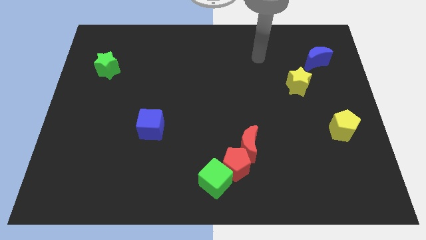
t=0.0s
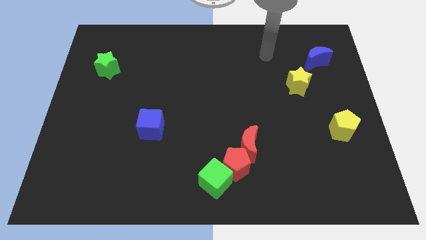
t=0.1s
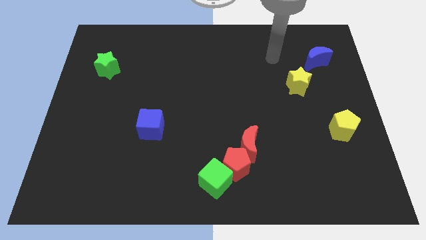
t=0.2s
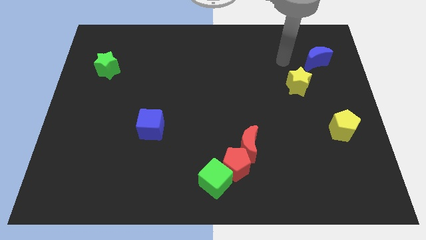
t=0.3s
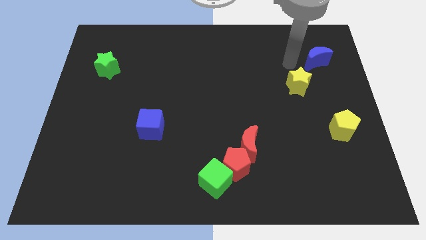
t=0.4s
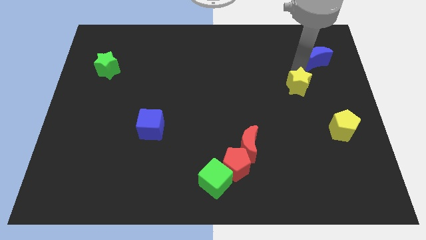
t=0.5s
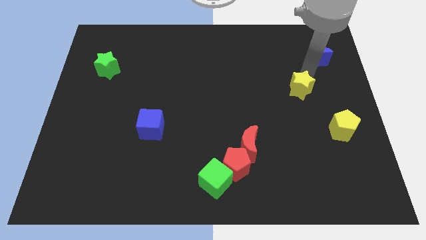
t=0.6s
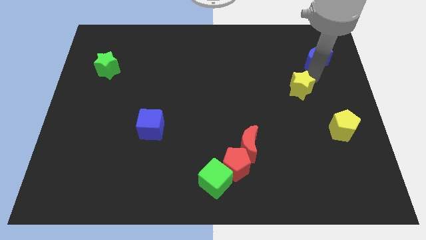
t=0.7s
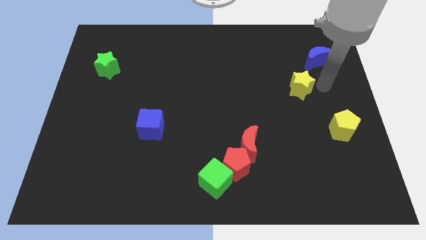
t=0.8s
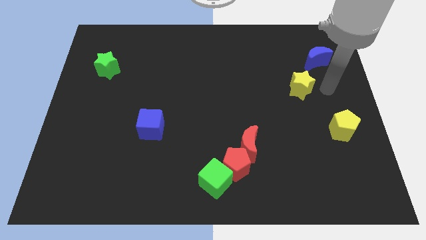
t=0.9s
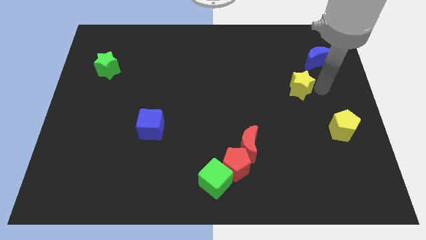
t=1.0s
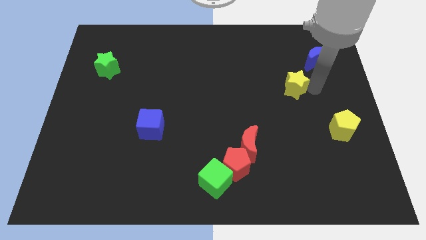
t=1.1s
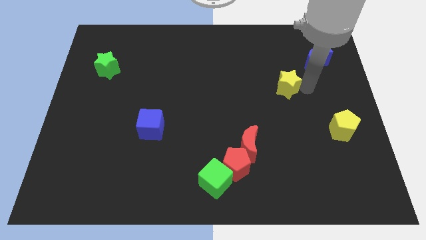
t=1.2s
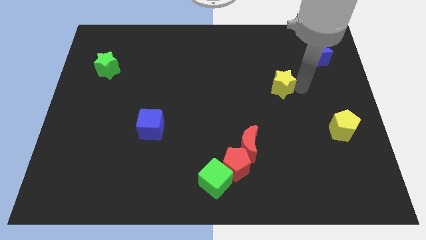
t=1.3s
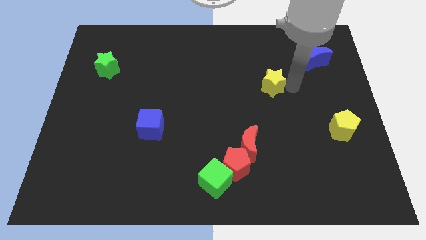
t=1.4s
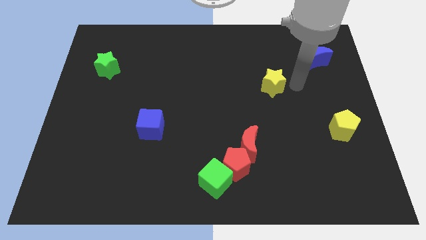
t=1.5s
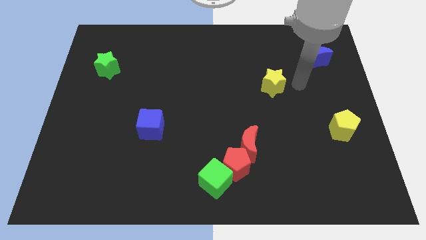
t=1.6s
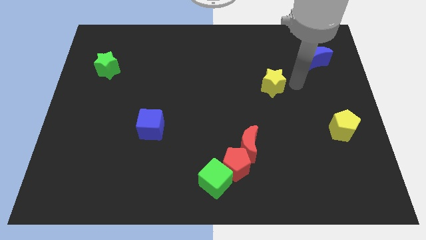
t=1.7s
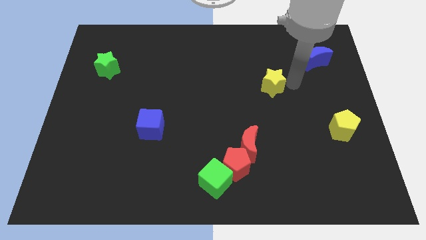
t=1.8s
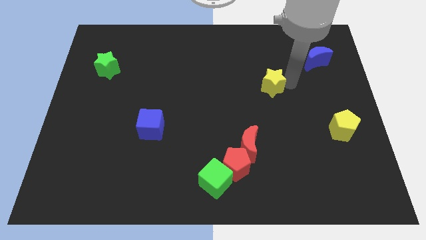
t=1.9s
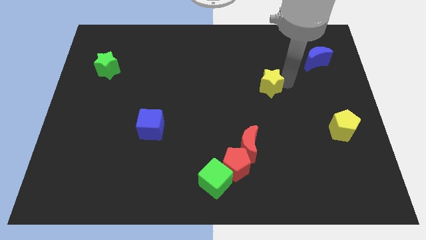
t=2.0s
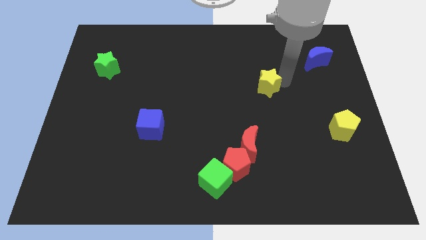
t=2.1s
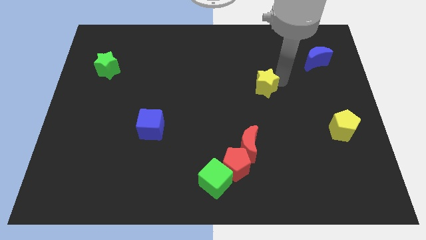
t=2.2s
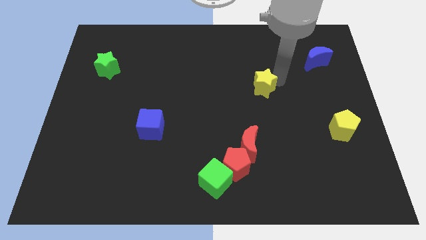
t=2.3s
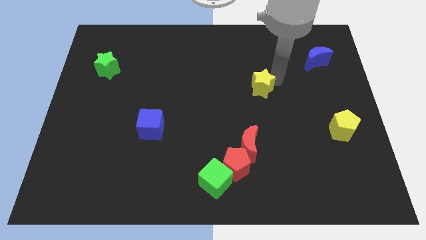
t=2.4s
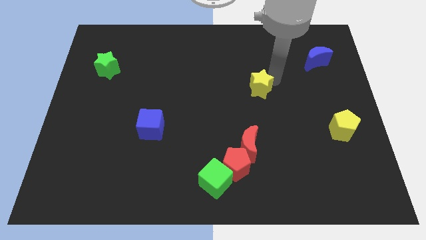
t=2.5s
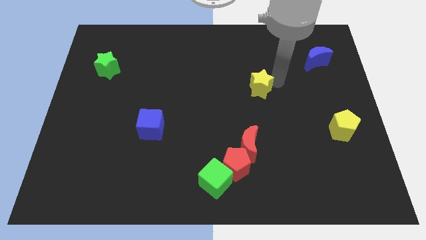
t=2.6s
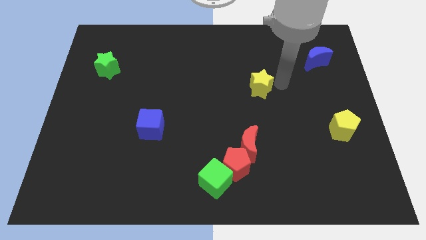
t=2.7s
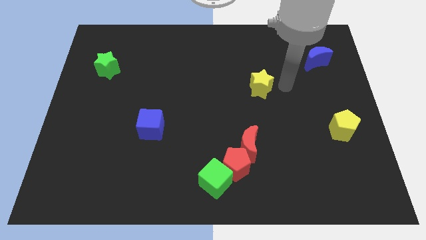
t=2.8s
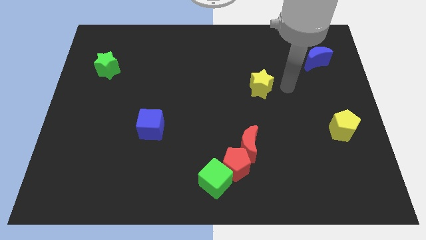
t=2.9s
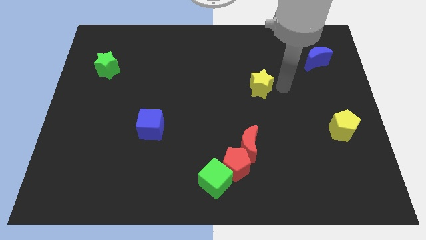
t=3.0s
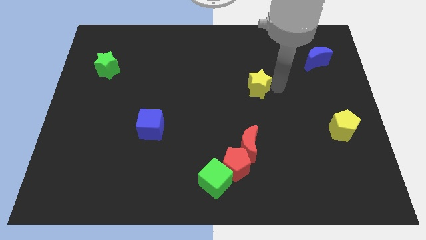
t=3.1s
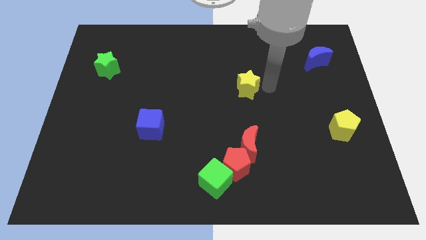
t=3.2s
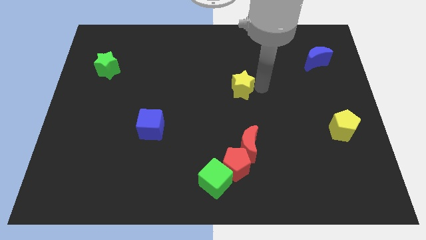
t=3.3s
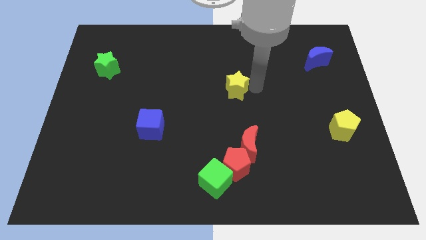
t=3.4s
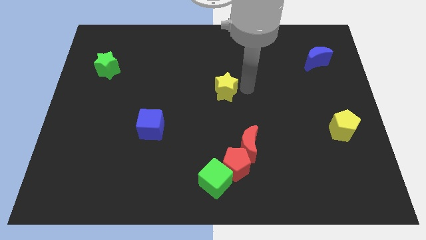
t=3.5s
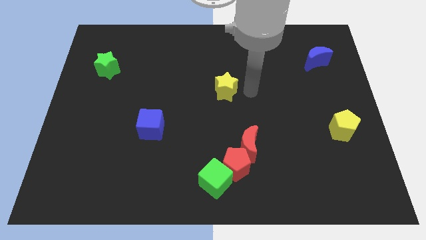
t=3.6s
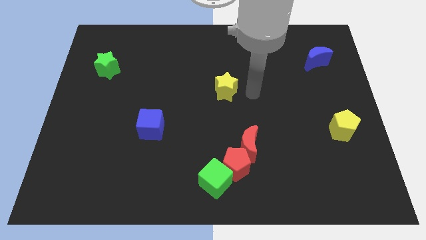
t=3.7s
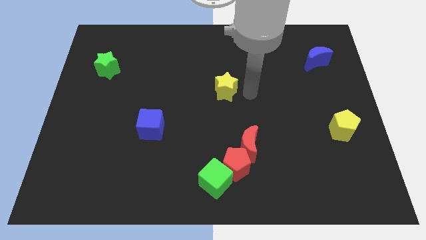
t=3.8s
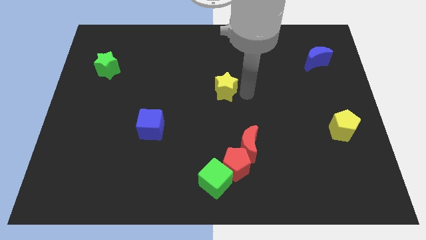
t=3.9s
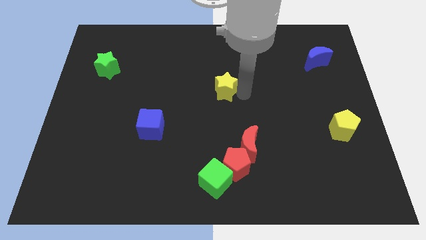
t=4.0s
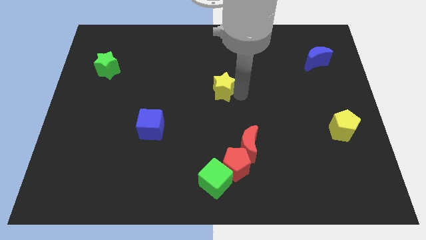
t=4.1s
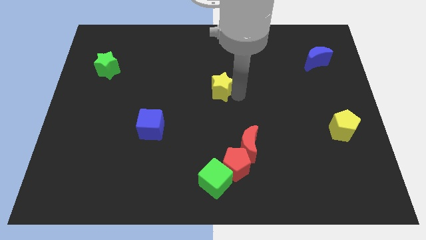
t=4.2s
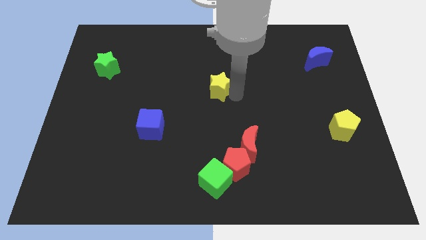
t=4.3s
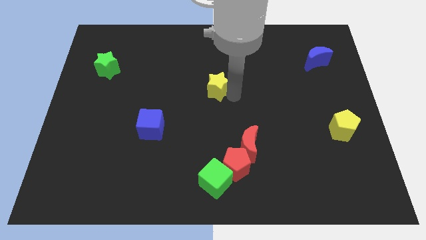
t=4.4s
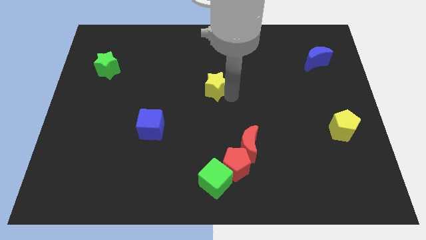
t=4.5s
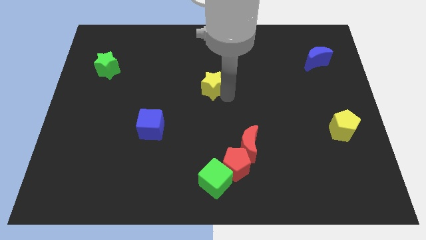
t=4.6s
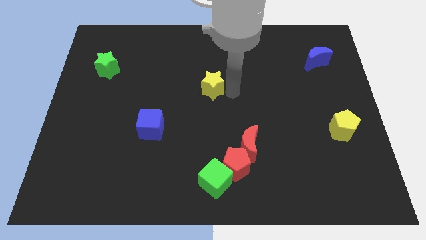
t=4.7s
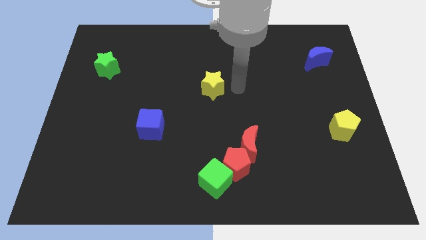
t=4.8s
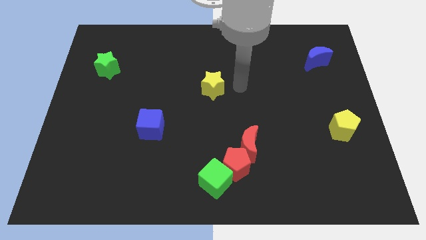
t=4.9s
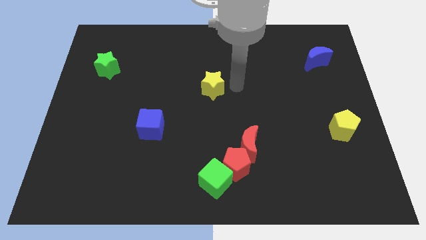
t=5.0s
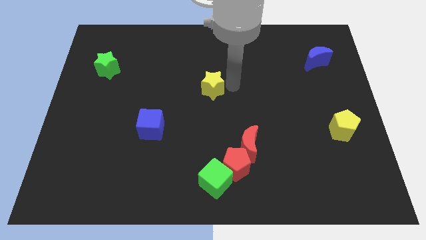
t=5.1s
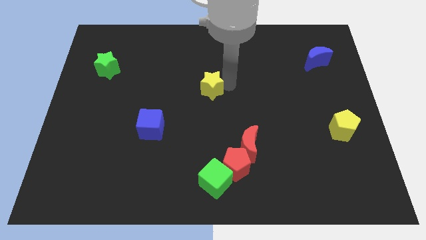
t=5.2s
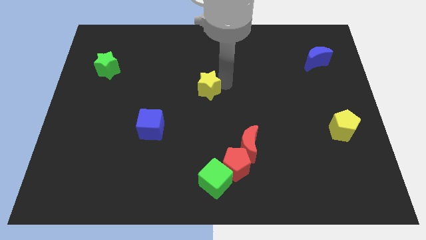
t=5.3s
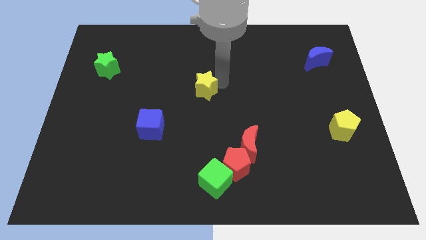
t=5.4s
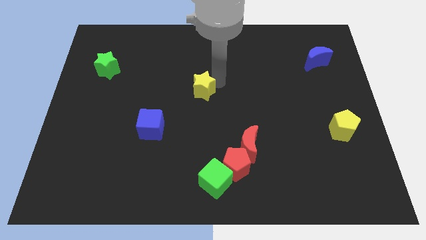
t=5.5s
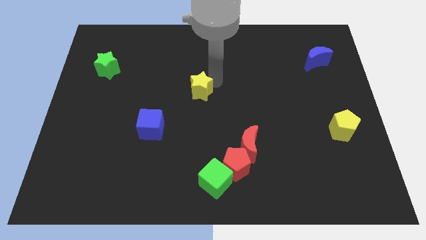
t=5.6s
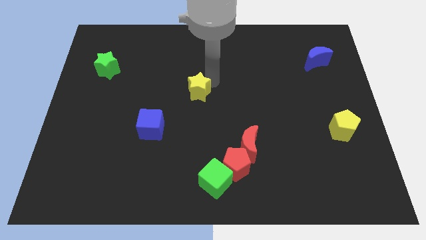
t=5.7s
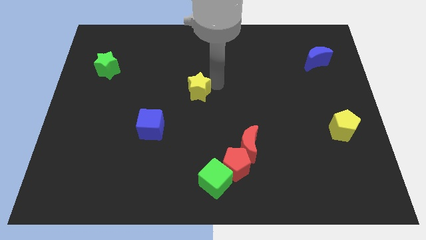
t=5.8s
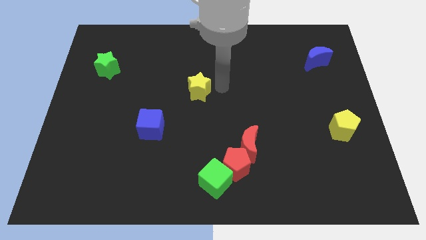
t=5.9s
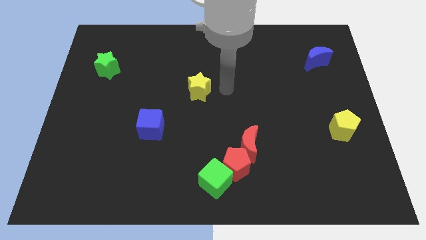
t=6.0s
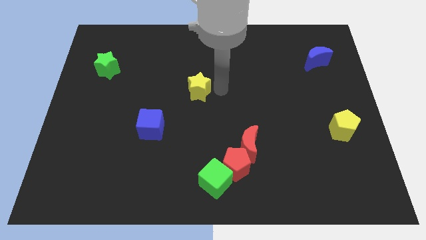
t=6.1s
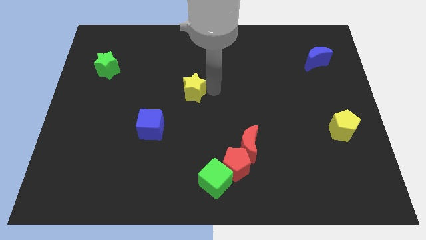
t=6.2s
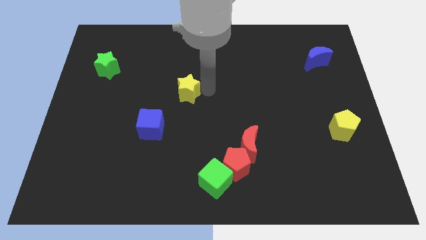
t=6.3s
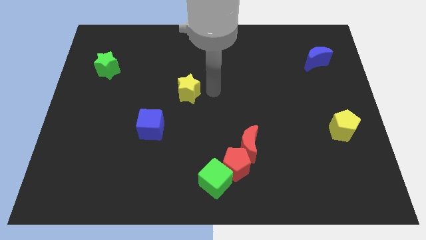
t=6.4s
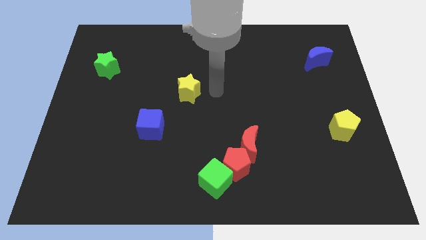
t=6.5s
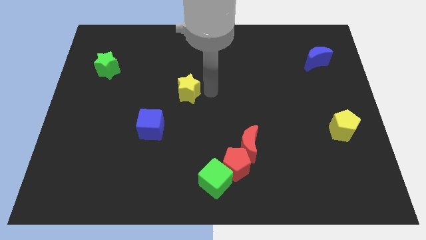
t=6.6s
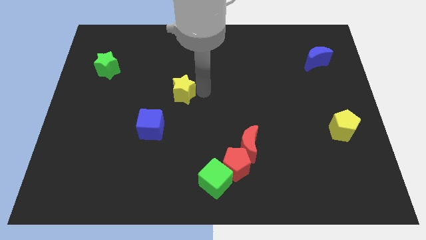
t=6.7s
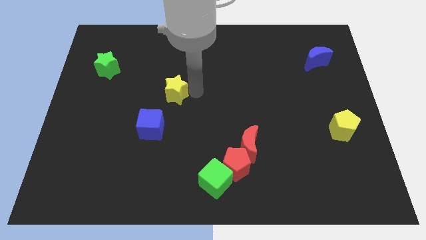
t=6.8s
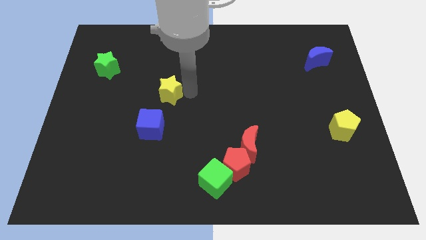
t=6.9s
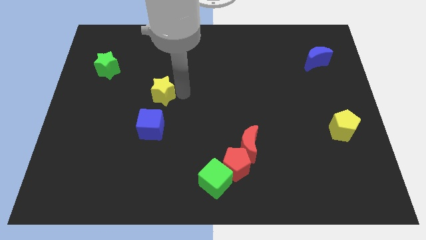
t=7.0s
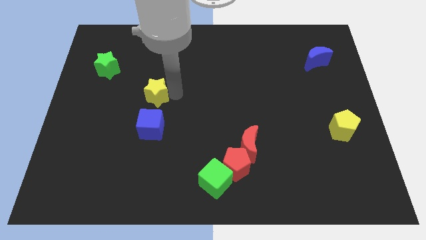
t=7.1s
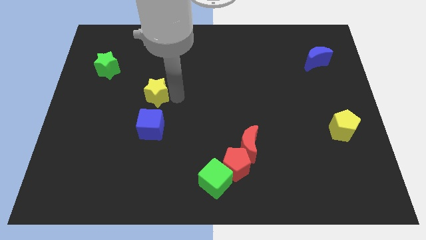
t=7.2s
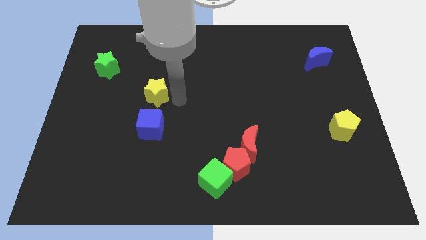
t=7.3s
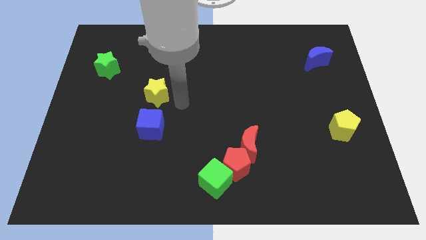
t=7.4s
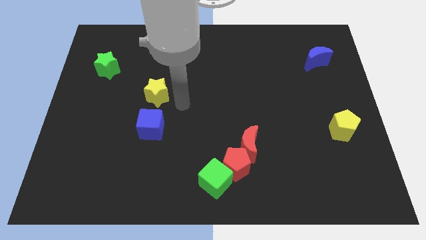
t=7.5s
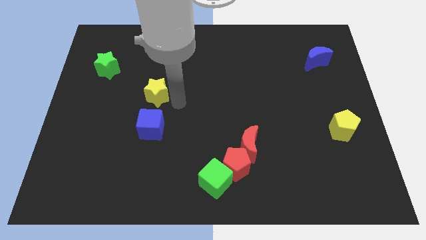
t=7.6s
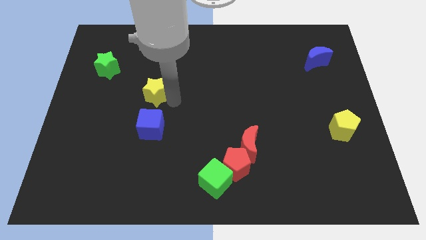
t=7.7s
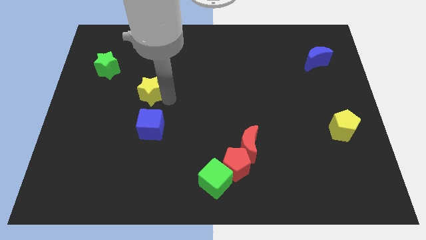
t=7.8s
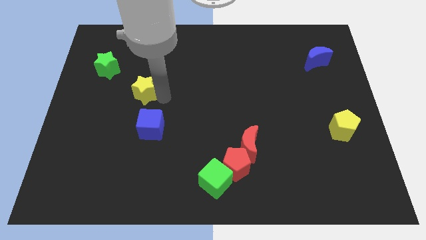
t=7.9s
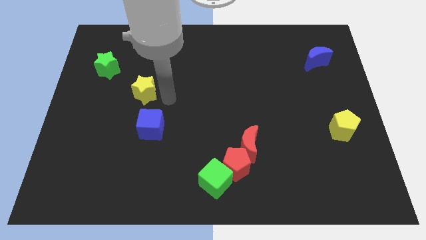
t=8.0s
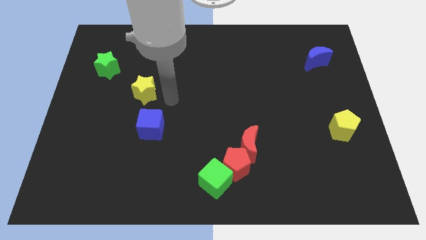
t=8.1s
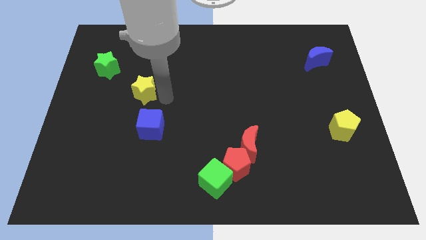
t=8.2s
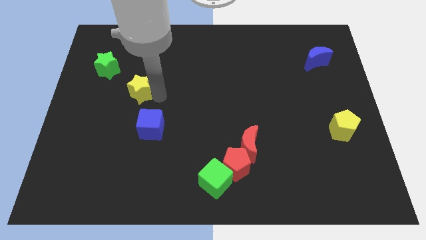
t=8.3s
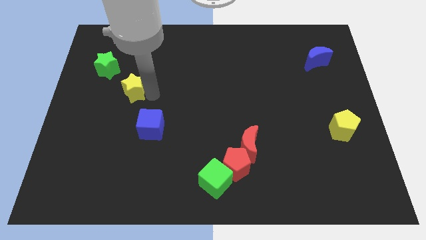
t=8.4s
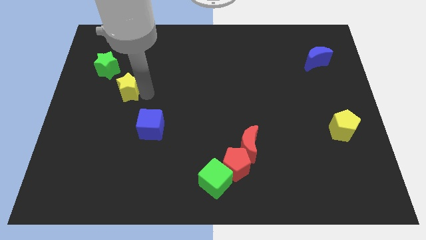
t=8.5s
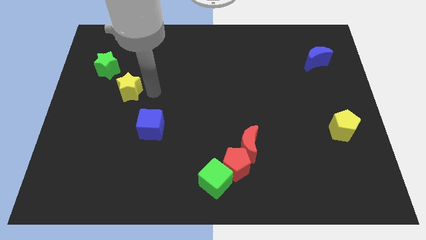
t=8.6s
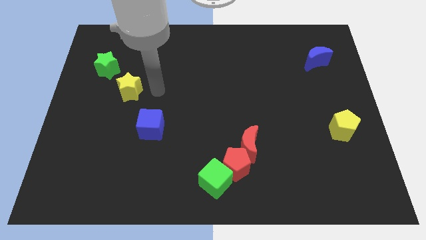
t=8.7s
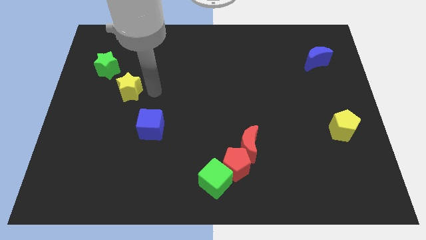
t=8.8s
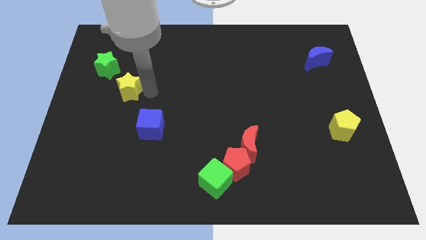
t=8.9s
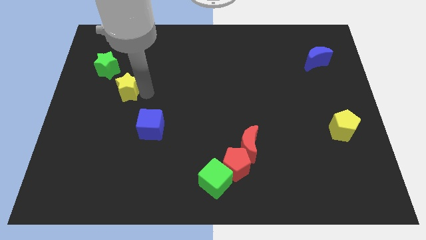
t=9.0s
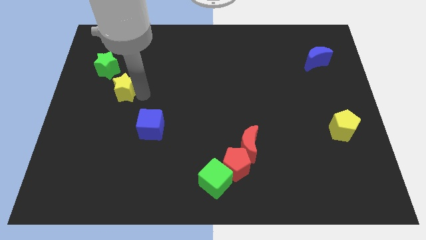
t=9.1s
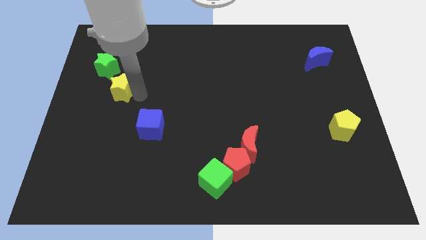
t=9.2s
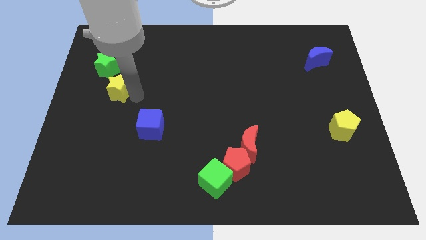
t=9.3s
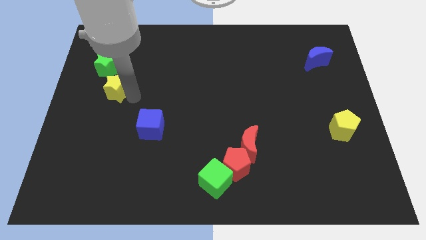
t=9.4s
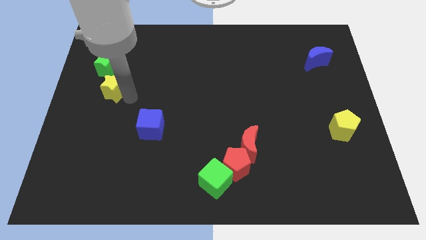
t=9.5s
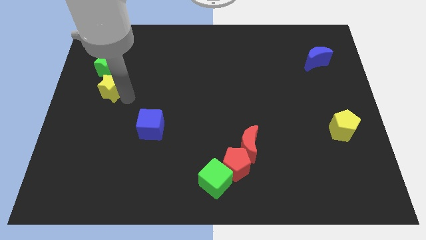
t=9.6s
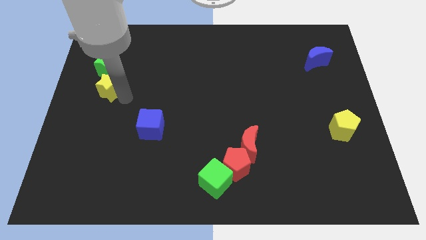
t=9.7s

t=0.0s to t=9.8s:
push the yellow star to the left side of the board
